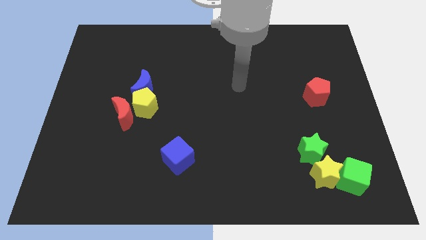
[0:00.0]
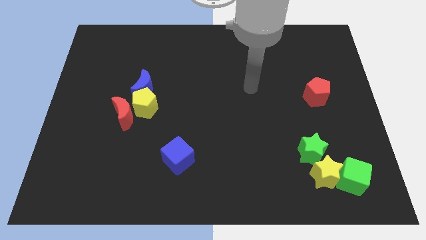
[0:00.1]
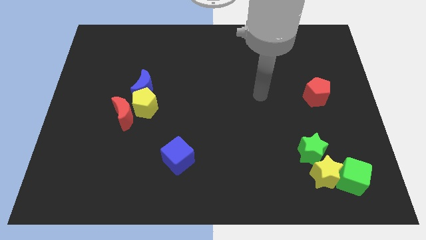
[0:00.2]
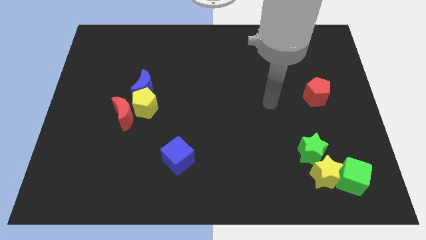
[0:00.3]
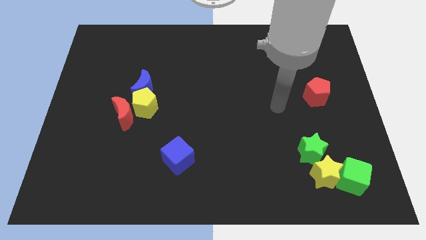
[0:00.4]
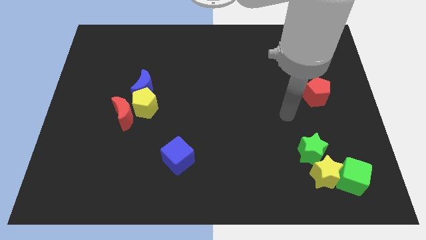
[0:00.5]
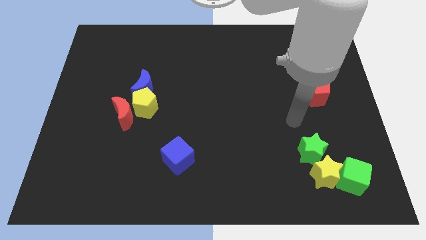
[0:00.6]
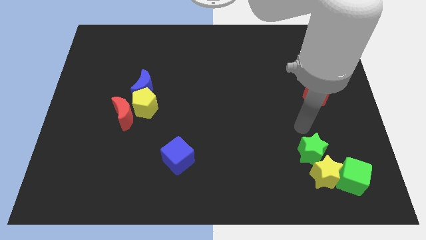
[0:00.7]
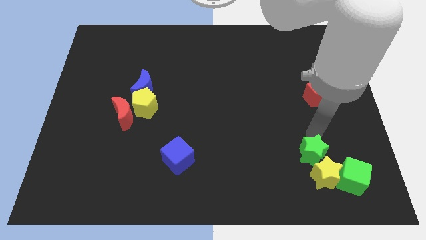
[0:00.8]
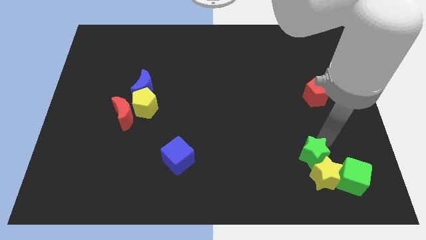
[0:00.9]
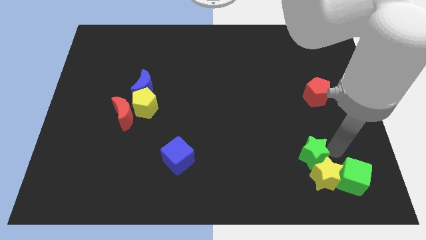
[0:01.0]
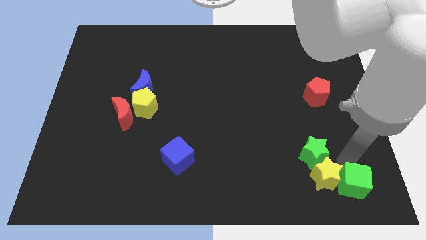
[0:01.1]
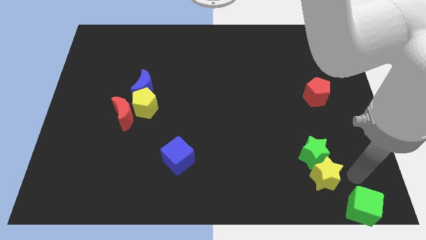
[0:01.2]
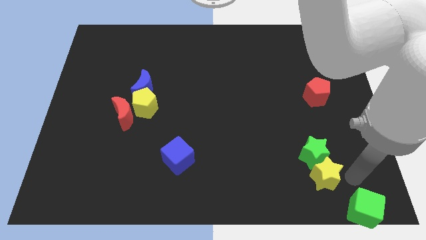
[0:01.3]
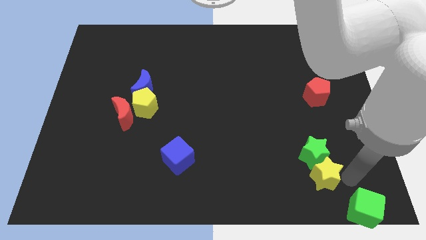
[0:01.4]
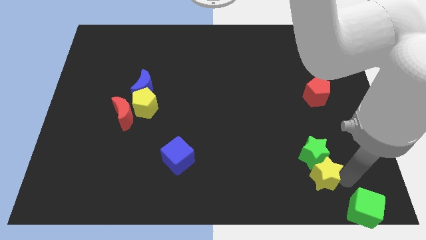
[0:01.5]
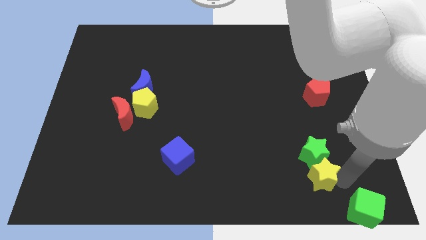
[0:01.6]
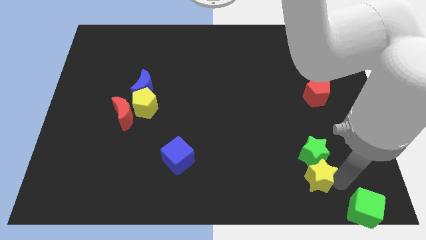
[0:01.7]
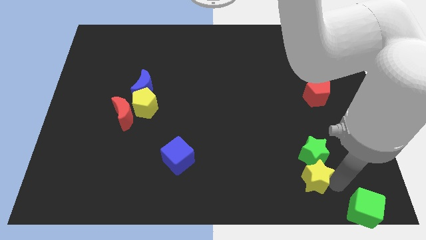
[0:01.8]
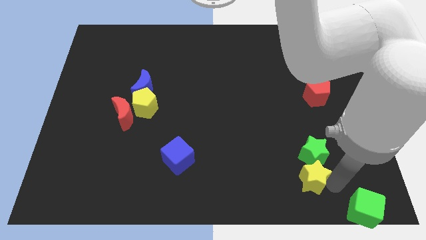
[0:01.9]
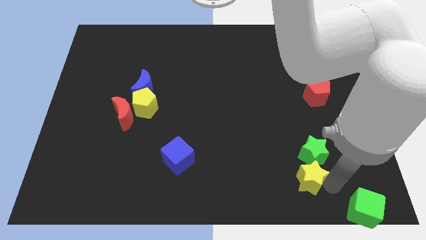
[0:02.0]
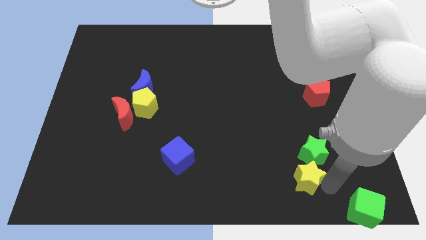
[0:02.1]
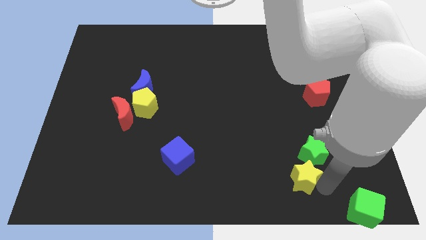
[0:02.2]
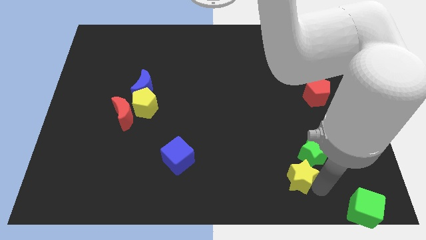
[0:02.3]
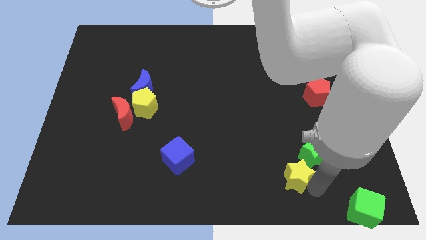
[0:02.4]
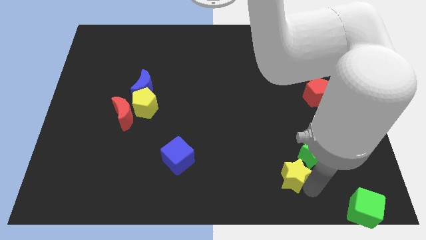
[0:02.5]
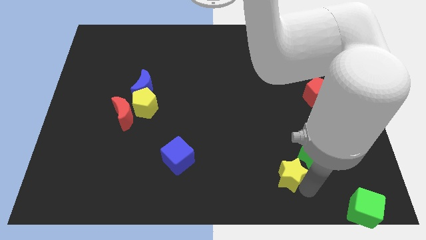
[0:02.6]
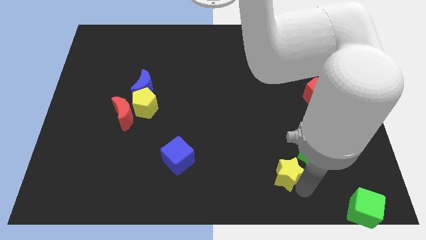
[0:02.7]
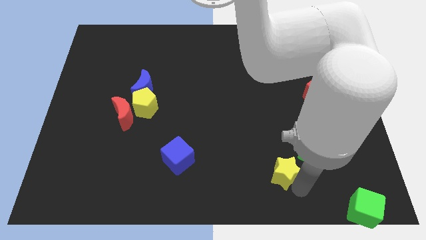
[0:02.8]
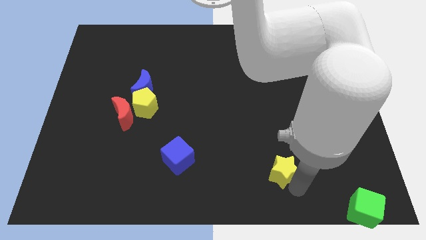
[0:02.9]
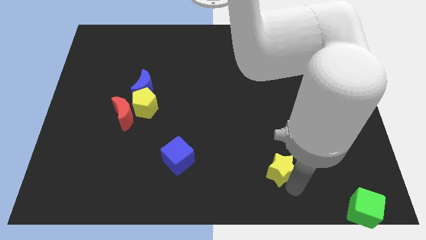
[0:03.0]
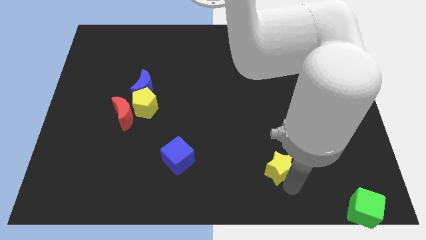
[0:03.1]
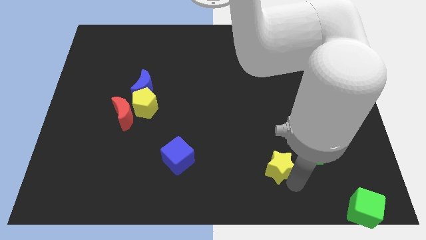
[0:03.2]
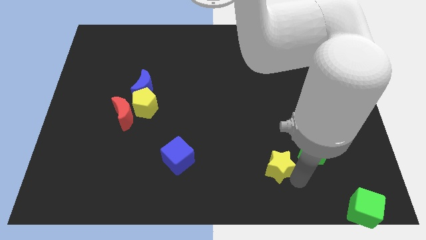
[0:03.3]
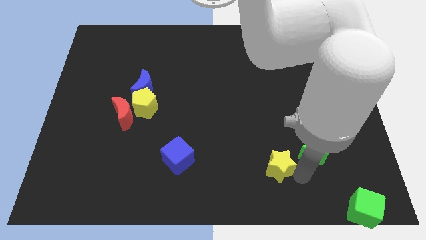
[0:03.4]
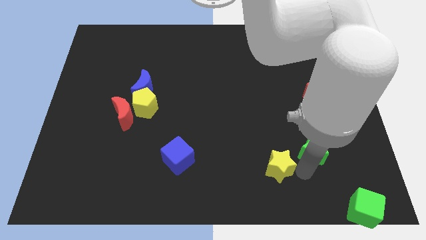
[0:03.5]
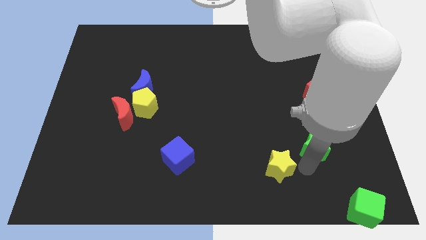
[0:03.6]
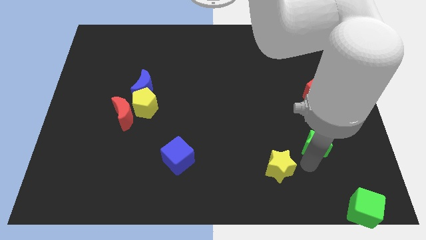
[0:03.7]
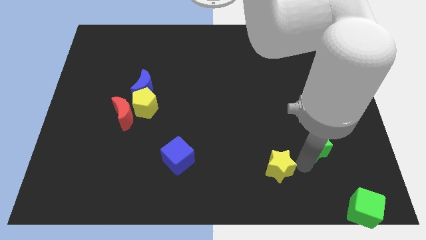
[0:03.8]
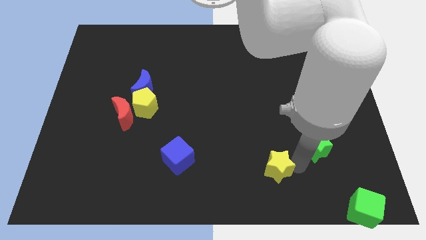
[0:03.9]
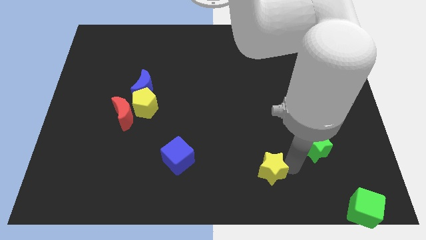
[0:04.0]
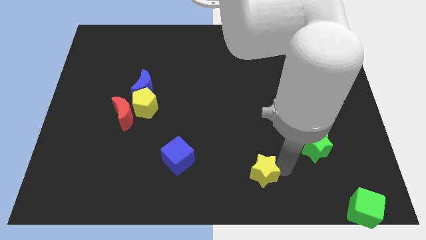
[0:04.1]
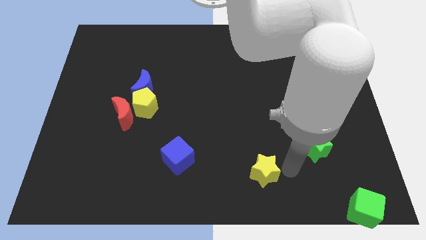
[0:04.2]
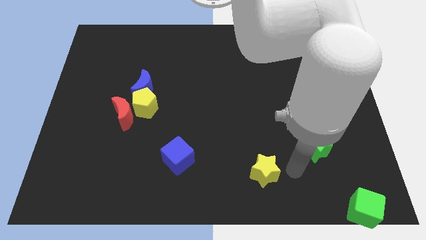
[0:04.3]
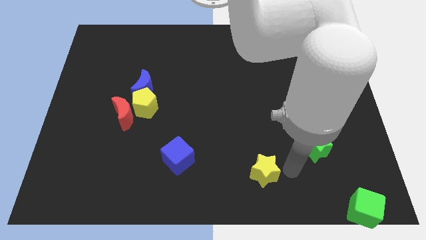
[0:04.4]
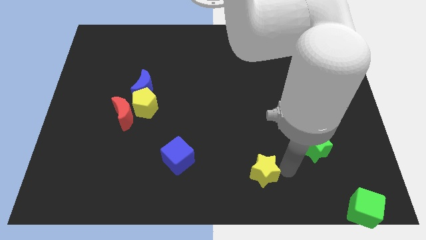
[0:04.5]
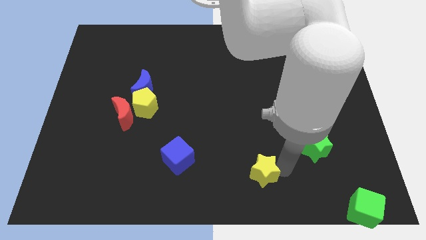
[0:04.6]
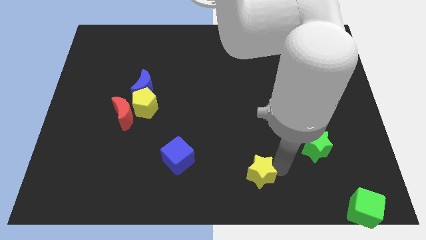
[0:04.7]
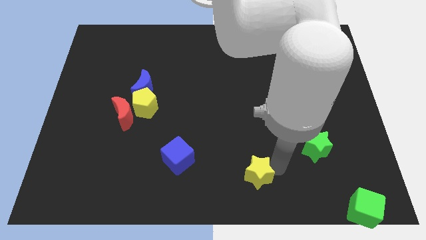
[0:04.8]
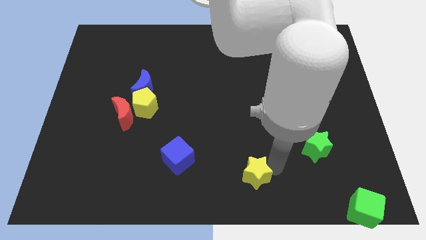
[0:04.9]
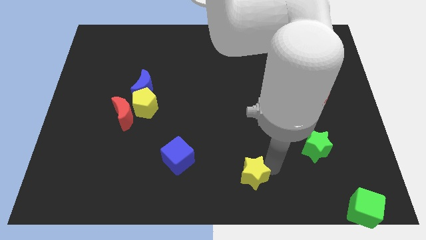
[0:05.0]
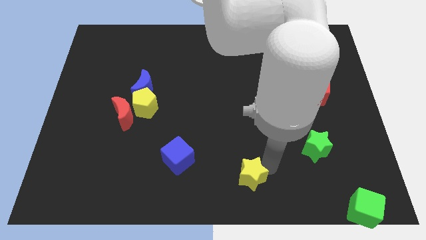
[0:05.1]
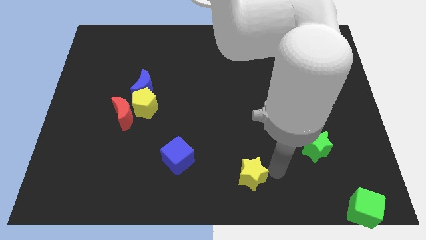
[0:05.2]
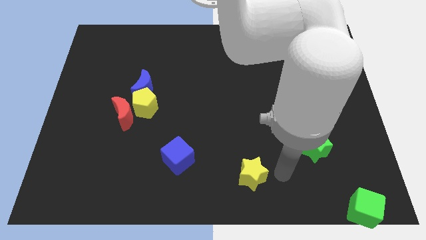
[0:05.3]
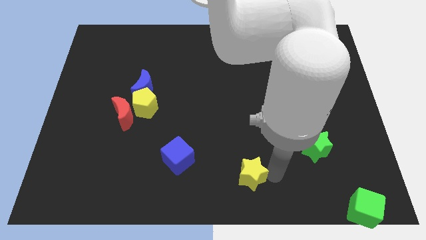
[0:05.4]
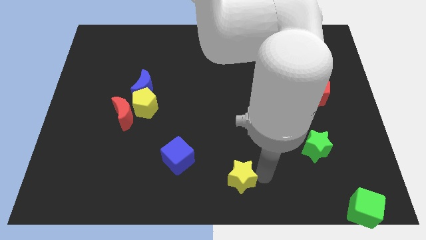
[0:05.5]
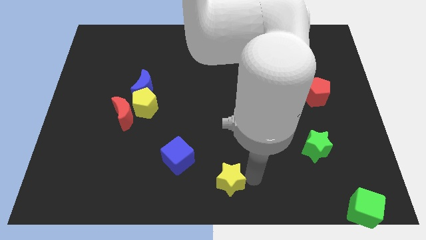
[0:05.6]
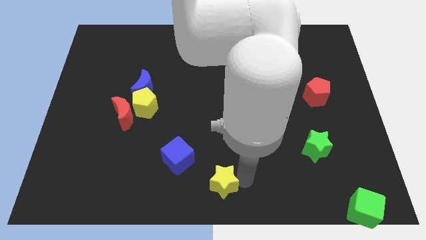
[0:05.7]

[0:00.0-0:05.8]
push the yellow star to the bottom right of the blue cube

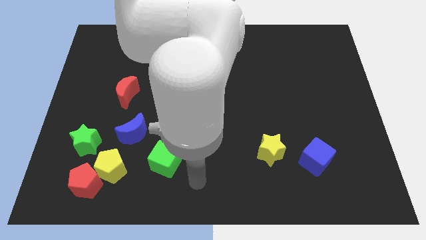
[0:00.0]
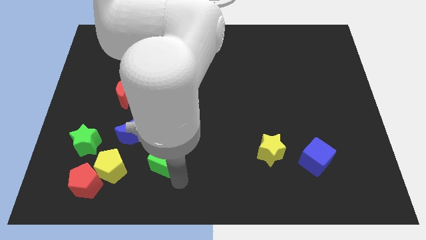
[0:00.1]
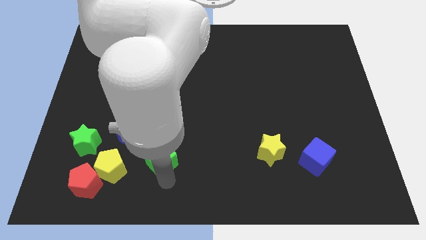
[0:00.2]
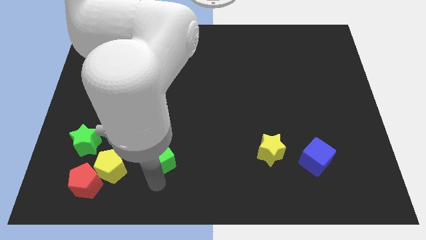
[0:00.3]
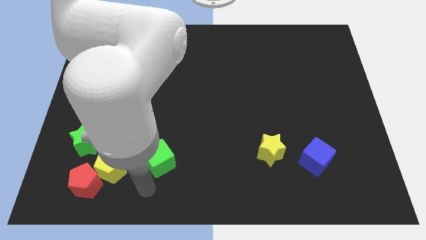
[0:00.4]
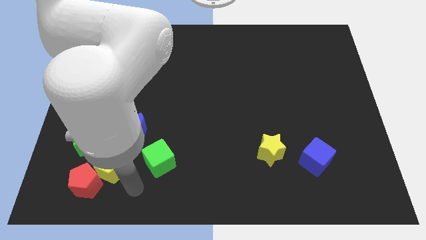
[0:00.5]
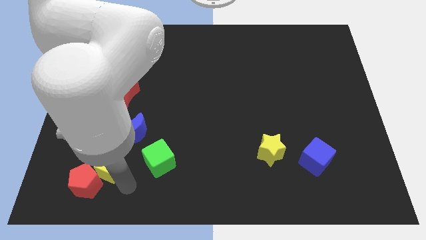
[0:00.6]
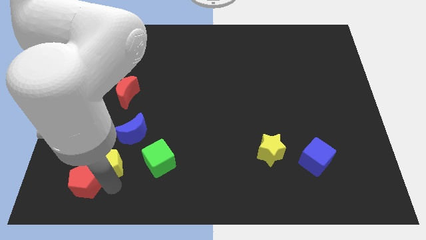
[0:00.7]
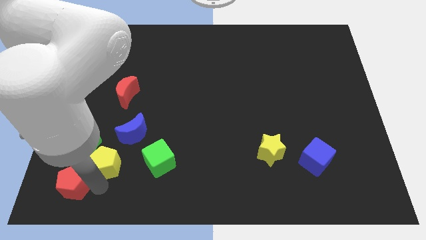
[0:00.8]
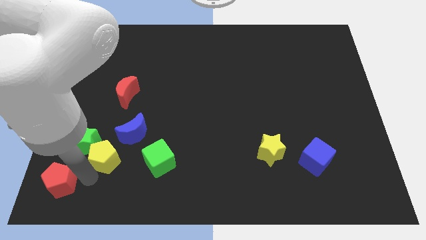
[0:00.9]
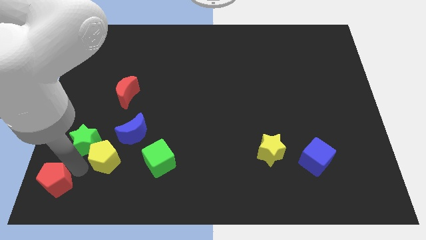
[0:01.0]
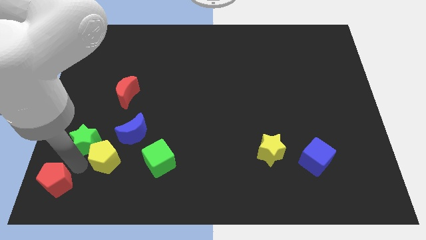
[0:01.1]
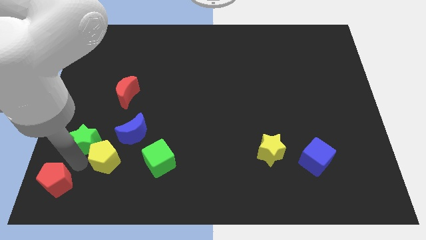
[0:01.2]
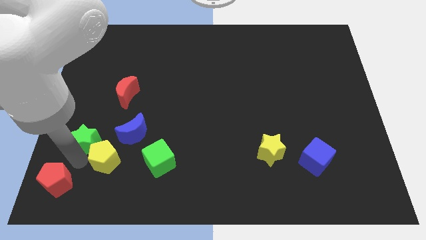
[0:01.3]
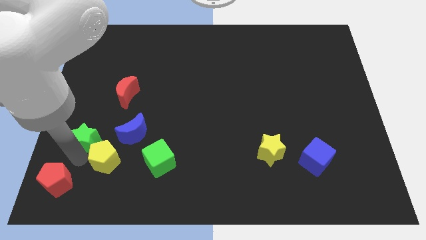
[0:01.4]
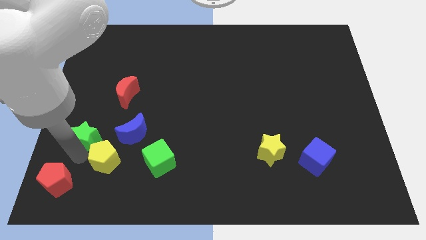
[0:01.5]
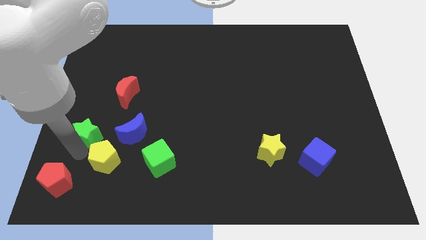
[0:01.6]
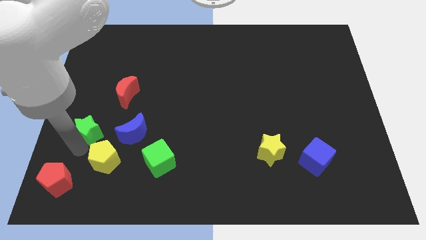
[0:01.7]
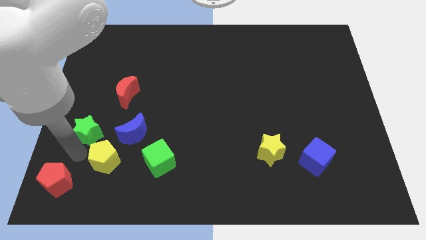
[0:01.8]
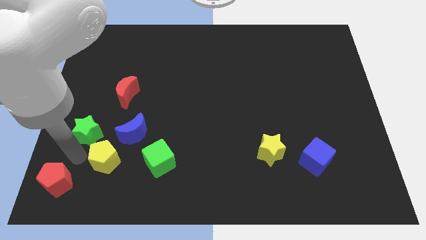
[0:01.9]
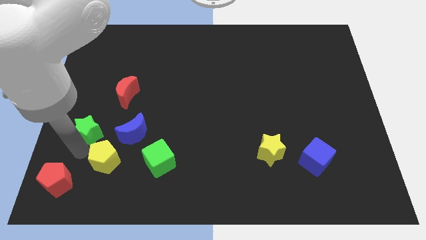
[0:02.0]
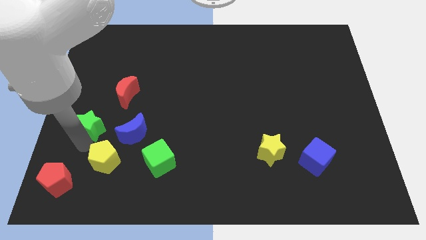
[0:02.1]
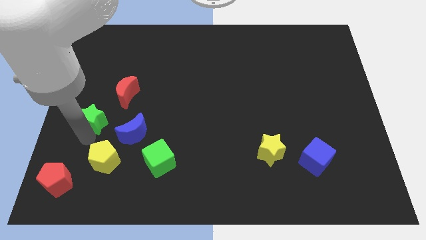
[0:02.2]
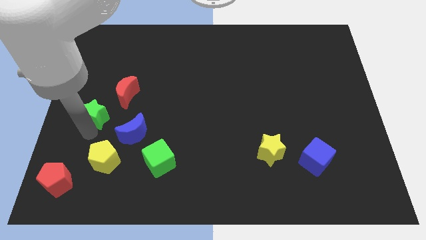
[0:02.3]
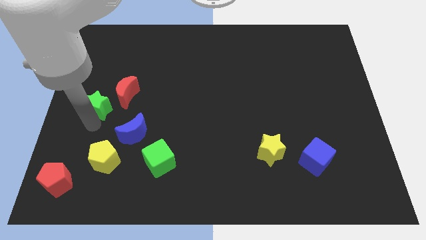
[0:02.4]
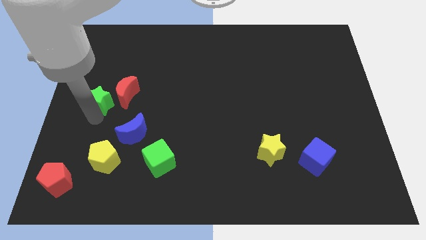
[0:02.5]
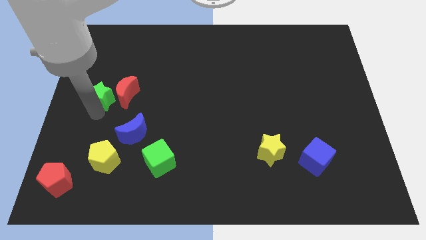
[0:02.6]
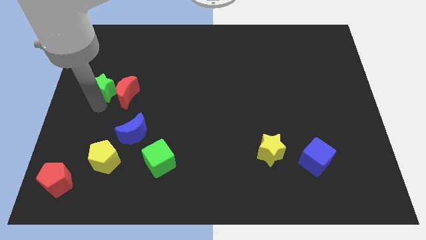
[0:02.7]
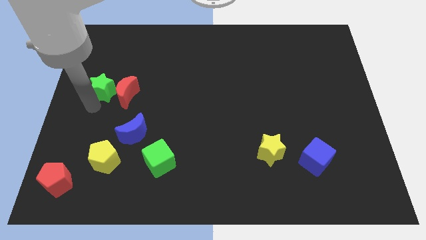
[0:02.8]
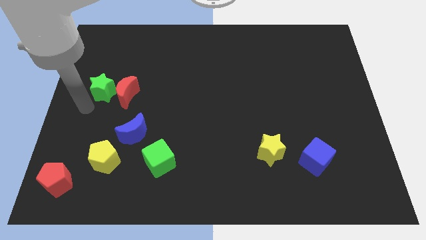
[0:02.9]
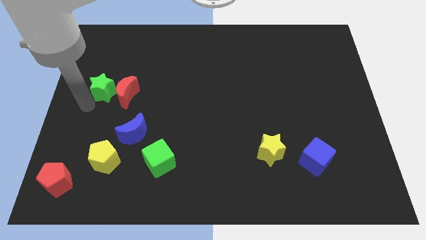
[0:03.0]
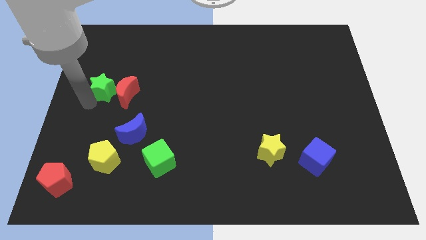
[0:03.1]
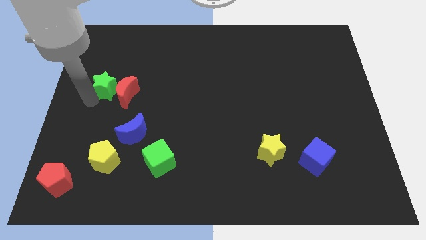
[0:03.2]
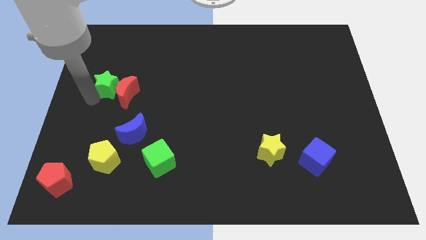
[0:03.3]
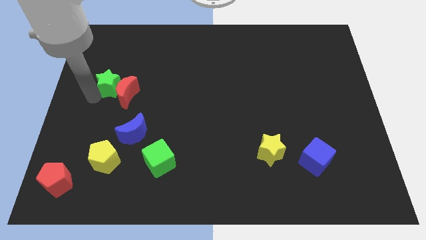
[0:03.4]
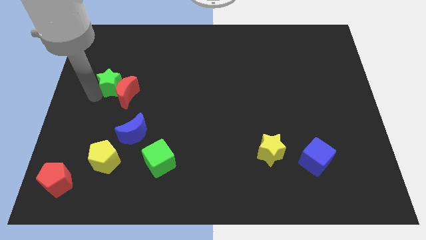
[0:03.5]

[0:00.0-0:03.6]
push the green star above the red moon
